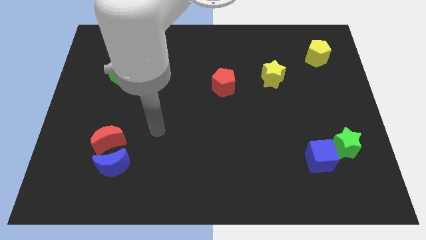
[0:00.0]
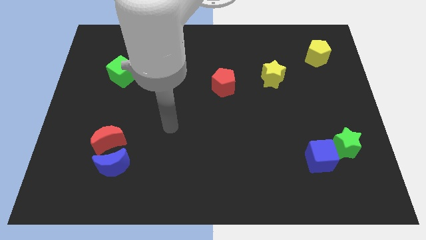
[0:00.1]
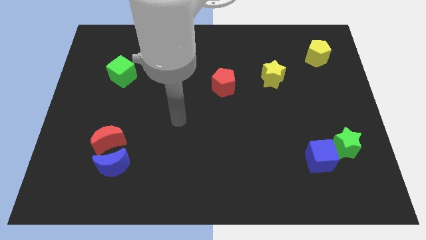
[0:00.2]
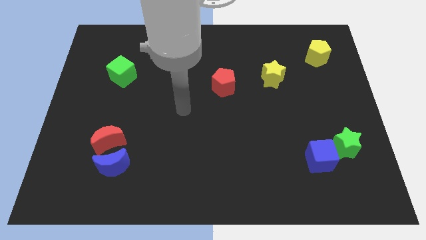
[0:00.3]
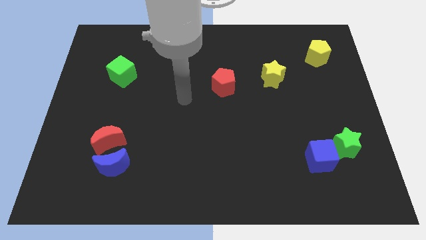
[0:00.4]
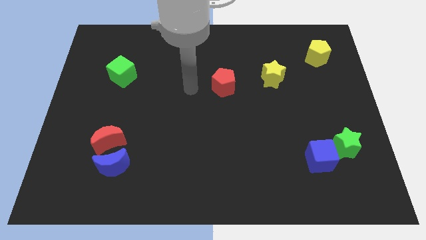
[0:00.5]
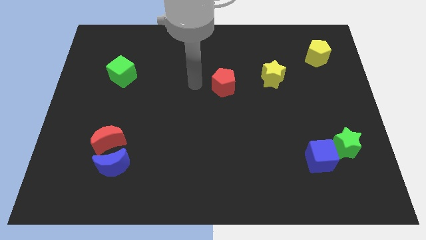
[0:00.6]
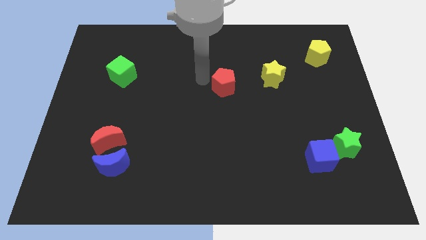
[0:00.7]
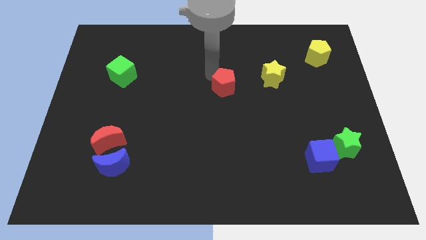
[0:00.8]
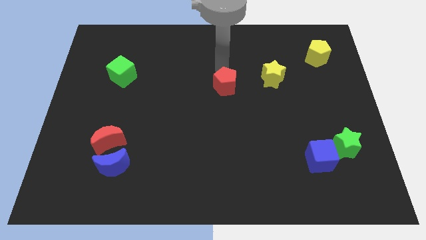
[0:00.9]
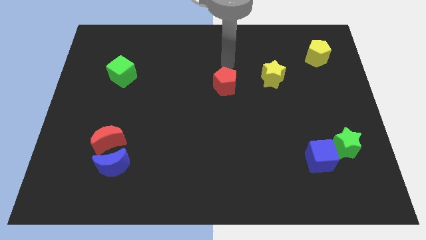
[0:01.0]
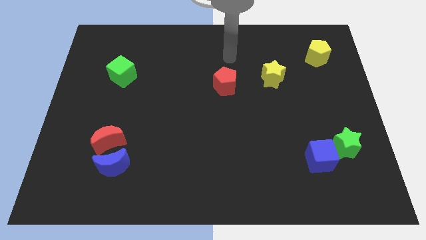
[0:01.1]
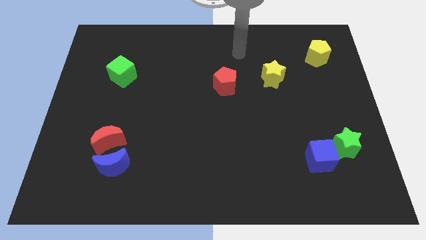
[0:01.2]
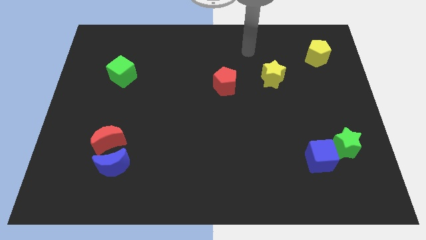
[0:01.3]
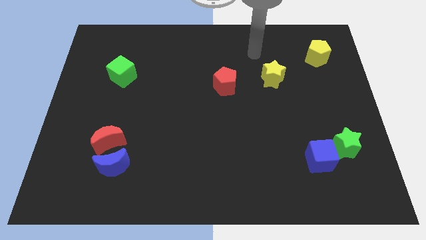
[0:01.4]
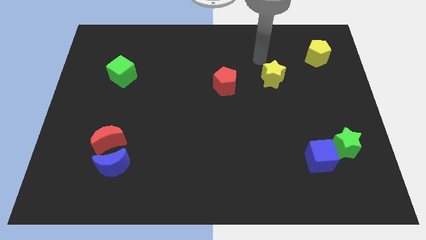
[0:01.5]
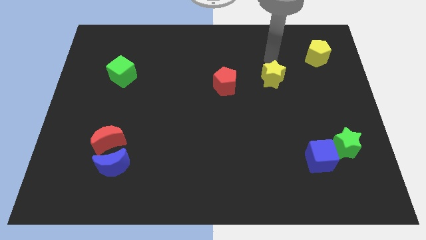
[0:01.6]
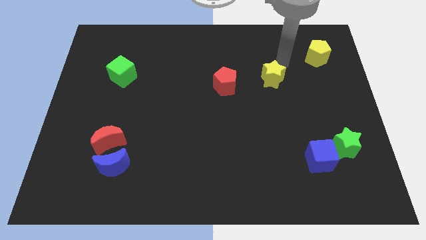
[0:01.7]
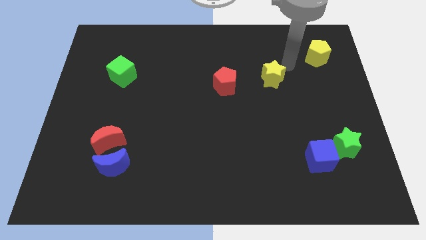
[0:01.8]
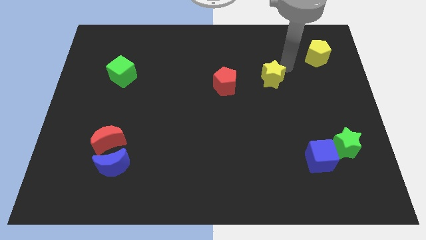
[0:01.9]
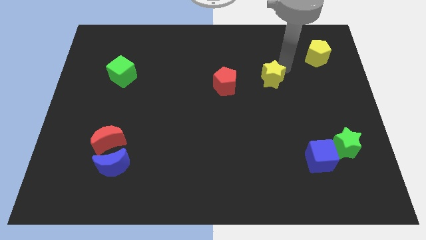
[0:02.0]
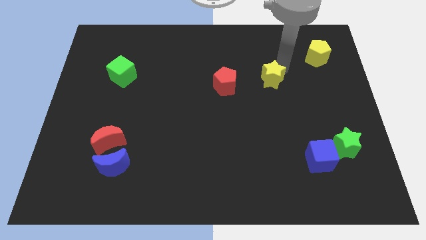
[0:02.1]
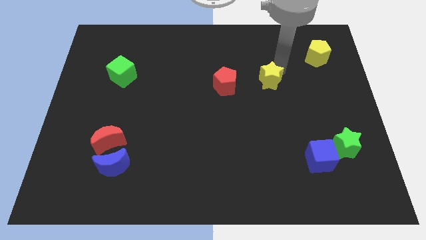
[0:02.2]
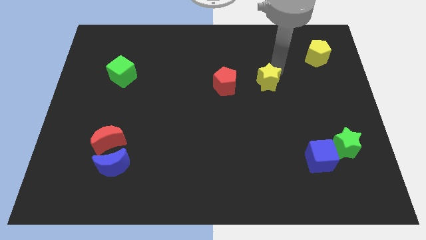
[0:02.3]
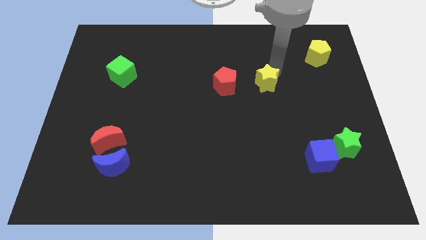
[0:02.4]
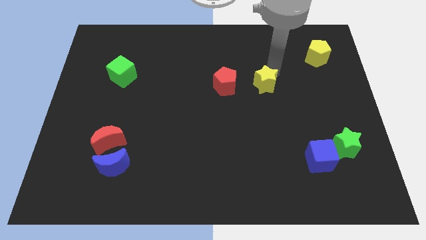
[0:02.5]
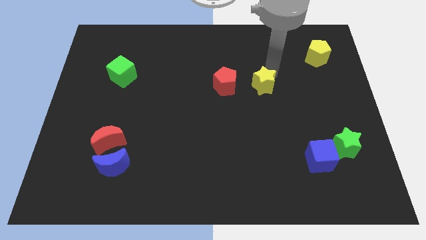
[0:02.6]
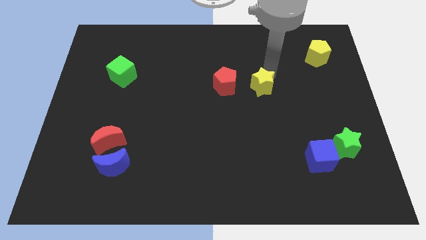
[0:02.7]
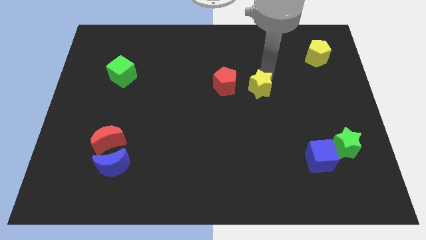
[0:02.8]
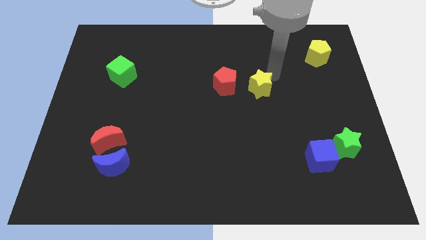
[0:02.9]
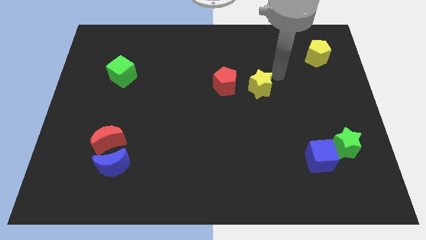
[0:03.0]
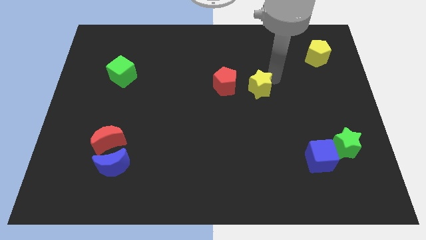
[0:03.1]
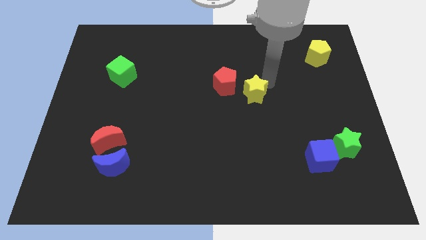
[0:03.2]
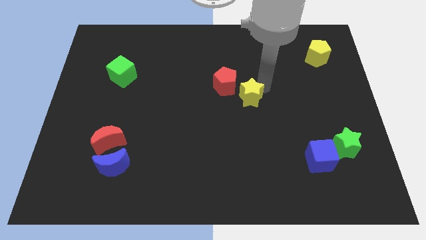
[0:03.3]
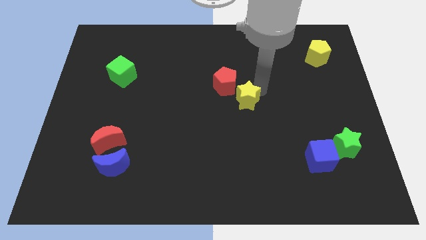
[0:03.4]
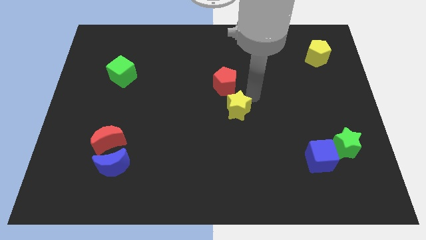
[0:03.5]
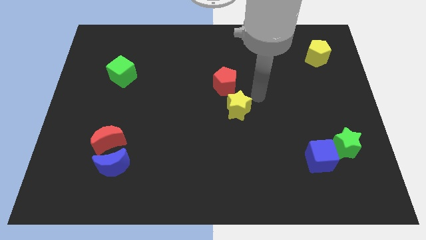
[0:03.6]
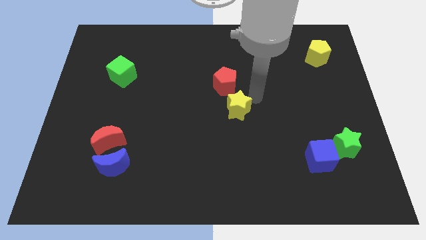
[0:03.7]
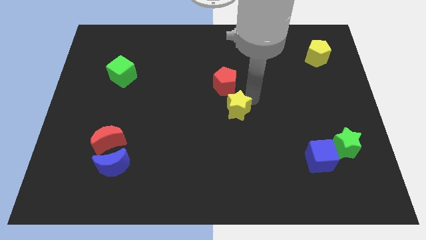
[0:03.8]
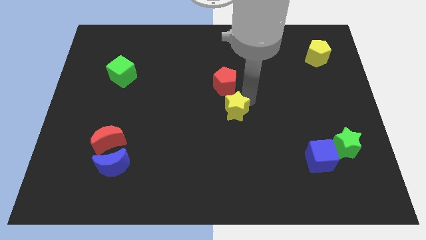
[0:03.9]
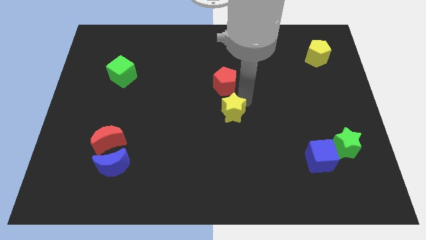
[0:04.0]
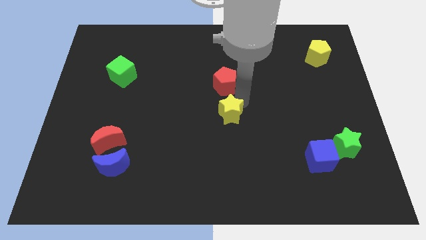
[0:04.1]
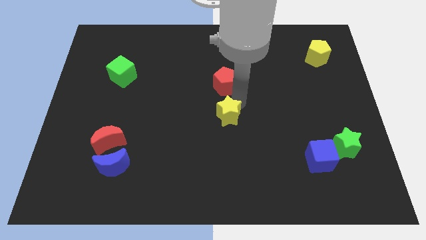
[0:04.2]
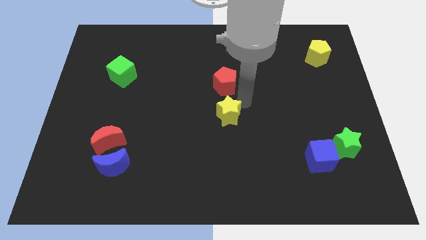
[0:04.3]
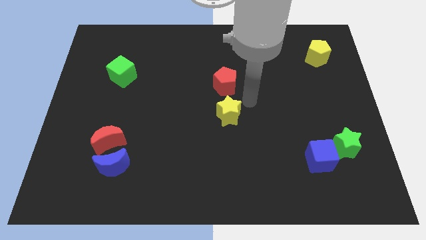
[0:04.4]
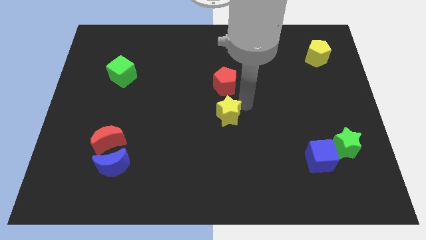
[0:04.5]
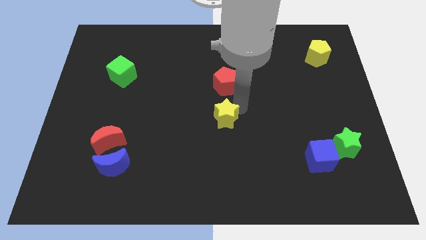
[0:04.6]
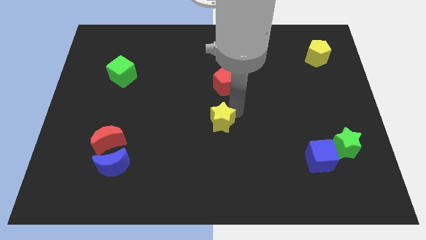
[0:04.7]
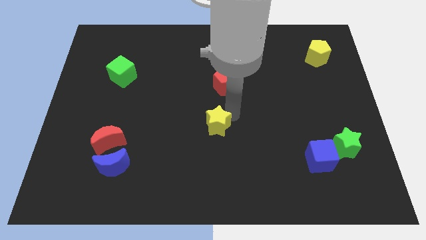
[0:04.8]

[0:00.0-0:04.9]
slide the yellow star downwards and to the left

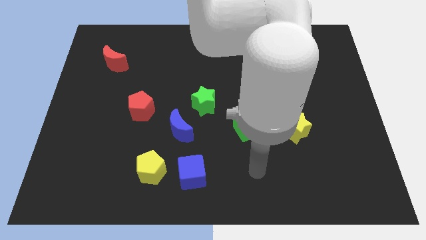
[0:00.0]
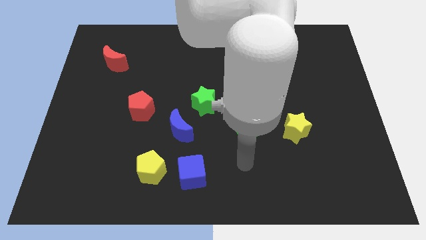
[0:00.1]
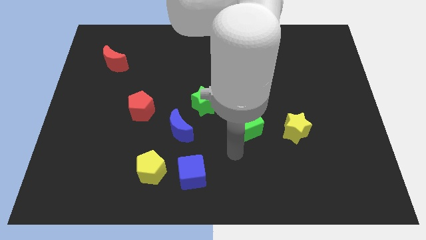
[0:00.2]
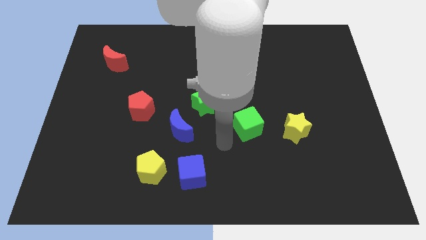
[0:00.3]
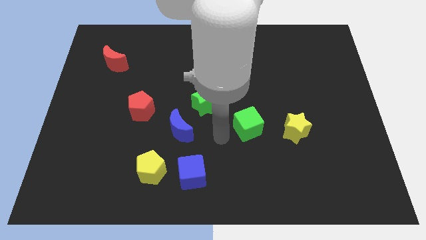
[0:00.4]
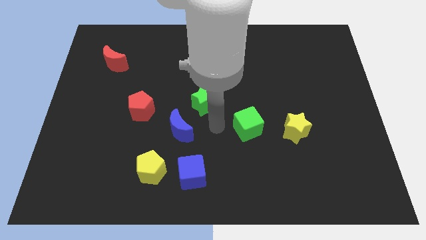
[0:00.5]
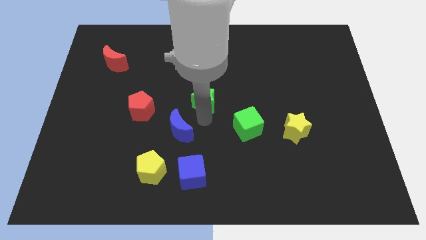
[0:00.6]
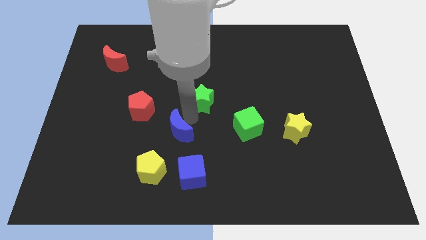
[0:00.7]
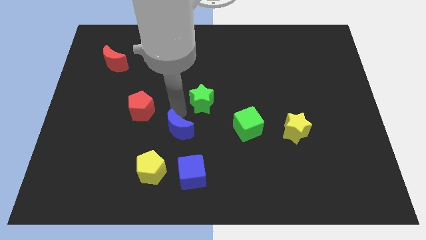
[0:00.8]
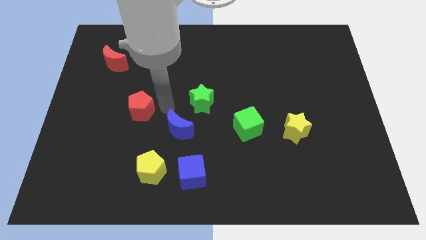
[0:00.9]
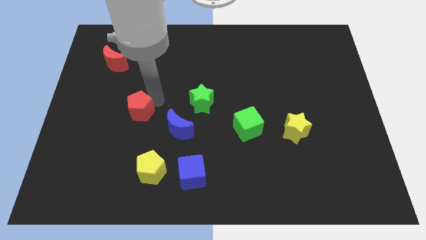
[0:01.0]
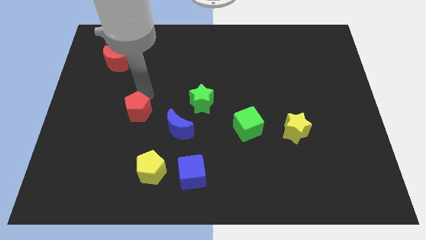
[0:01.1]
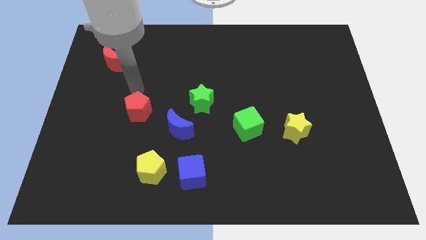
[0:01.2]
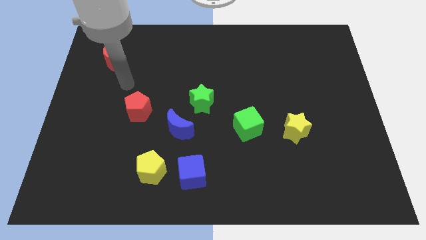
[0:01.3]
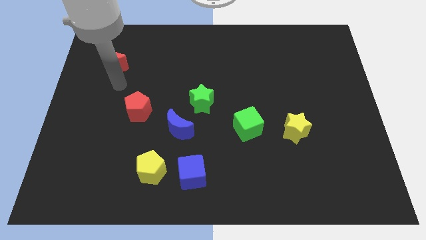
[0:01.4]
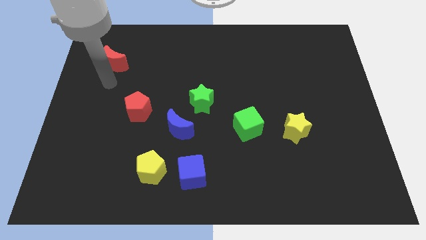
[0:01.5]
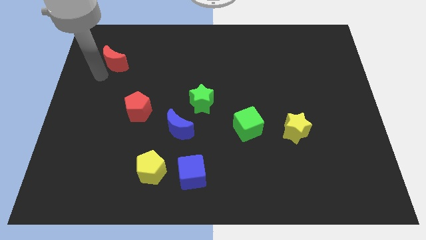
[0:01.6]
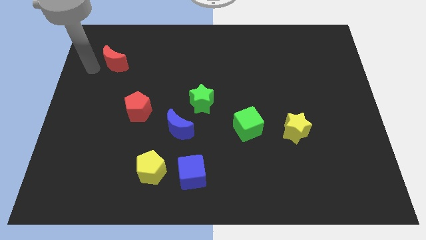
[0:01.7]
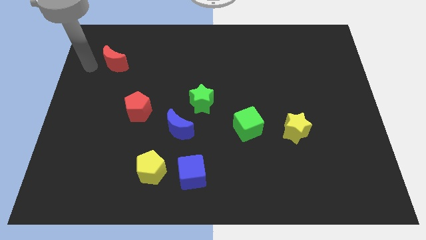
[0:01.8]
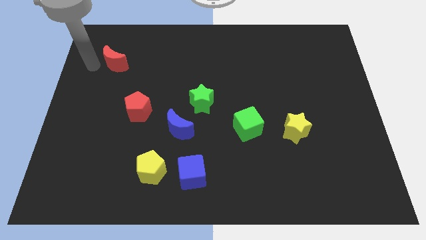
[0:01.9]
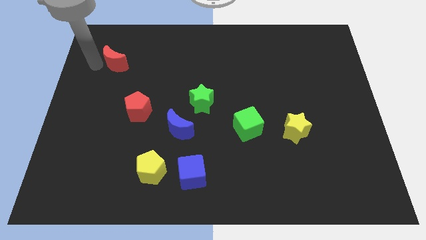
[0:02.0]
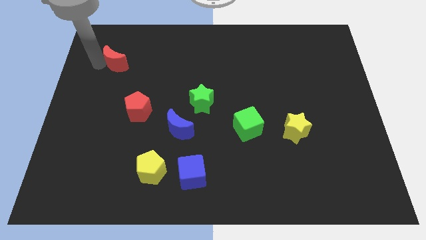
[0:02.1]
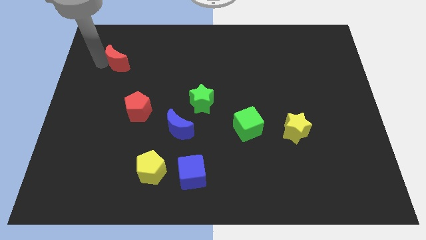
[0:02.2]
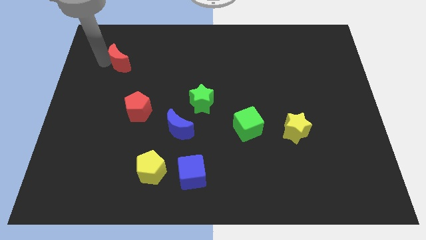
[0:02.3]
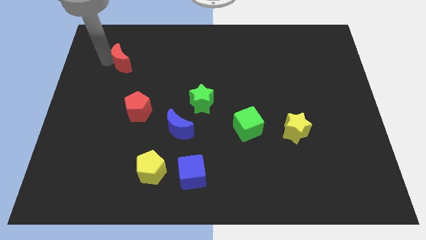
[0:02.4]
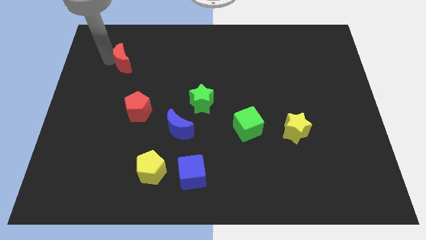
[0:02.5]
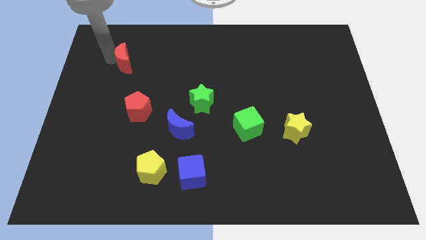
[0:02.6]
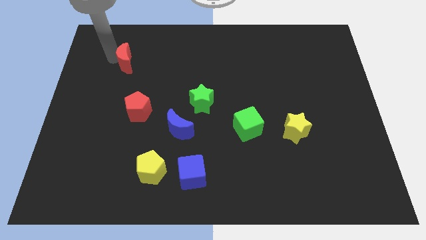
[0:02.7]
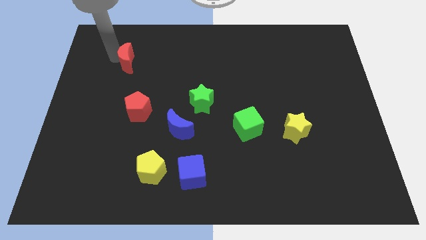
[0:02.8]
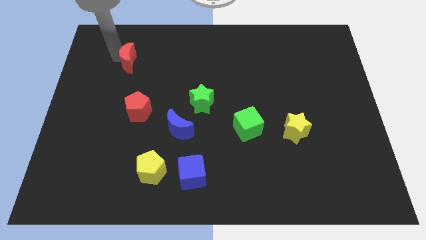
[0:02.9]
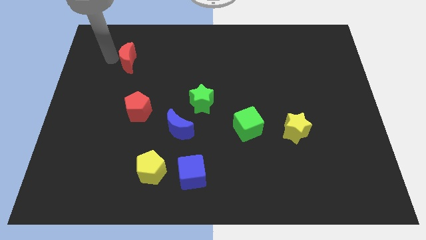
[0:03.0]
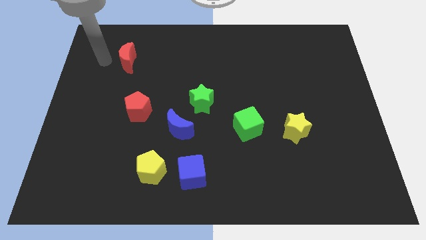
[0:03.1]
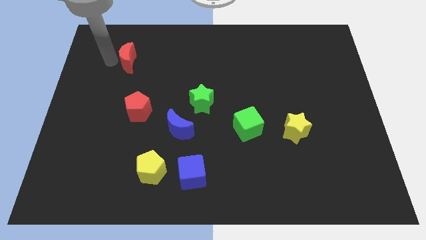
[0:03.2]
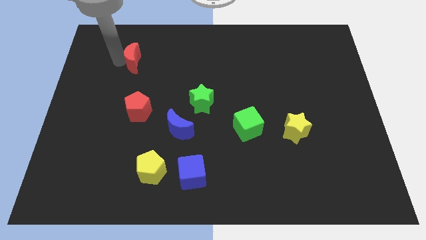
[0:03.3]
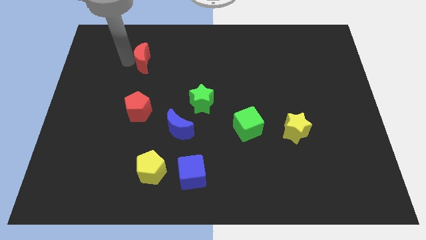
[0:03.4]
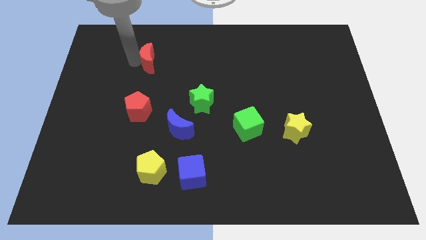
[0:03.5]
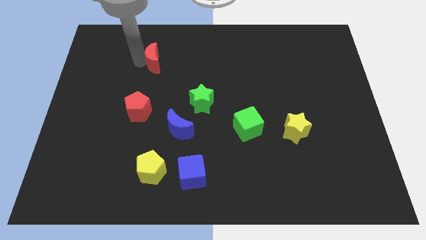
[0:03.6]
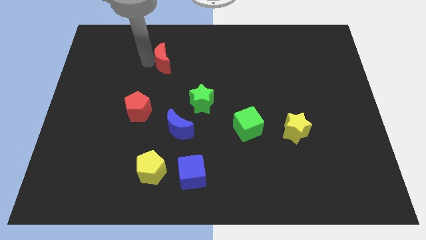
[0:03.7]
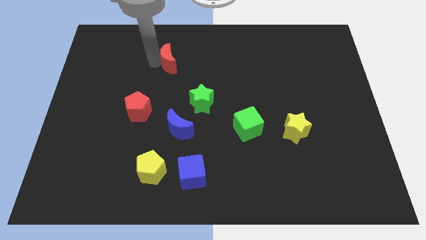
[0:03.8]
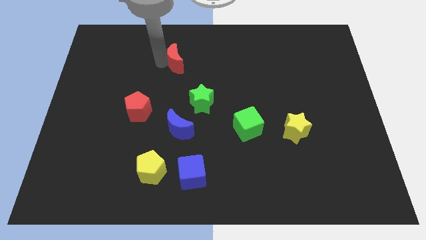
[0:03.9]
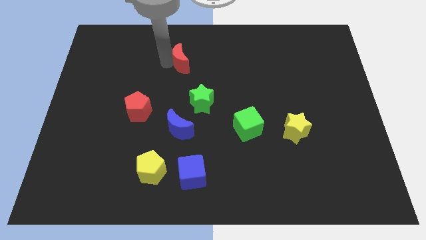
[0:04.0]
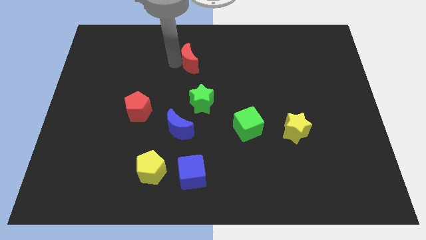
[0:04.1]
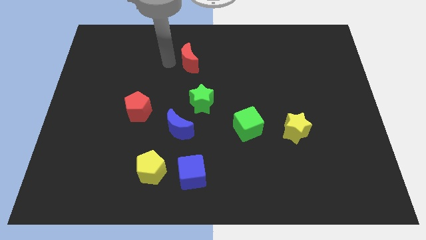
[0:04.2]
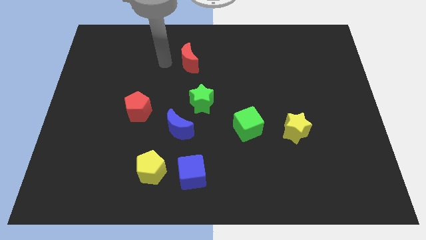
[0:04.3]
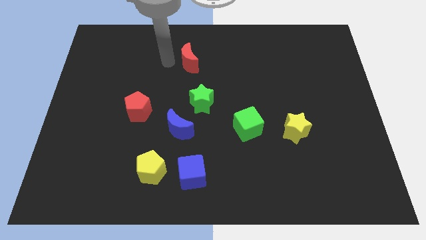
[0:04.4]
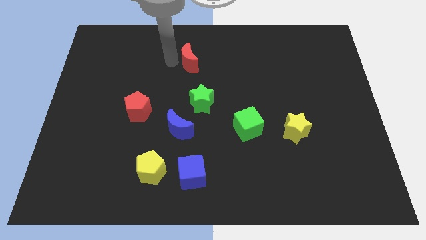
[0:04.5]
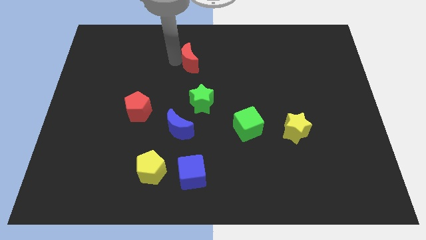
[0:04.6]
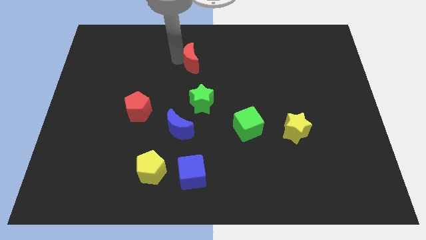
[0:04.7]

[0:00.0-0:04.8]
push the red moon right
